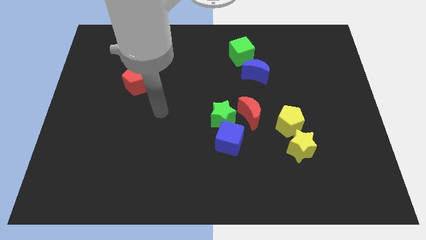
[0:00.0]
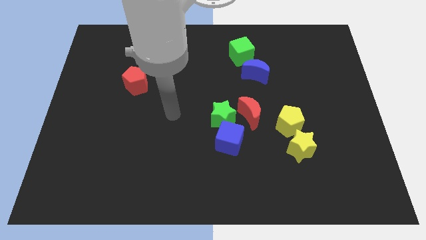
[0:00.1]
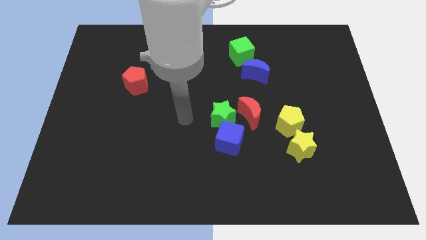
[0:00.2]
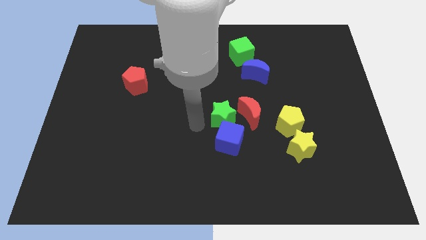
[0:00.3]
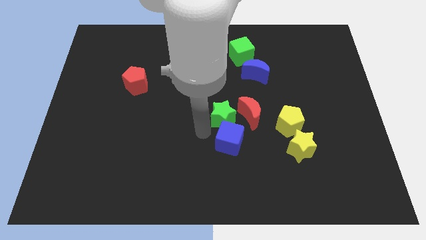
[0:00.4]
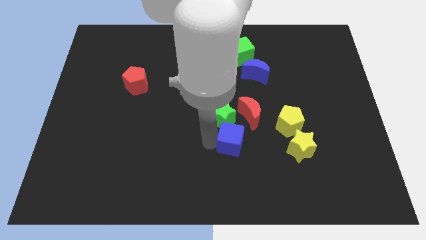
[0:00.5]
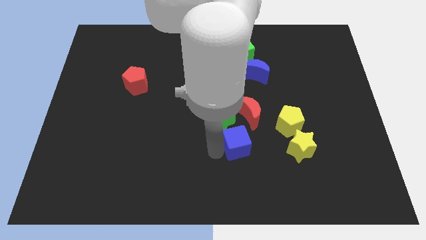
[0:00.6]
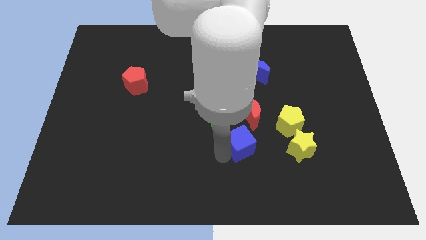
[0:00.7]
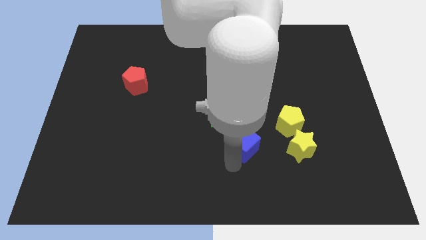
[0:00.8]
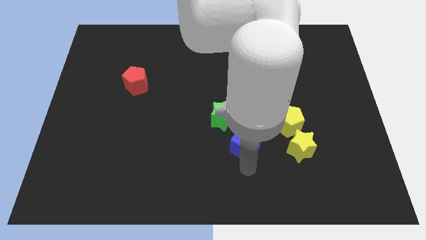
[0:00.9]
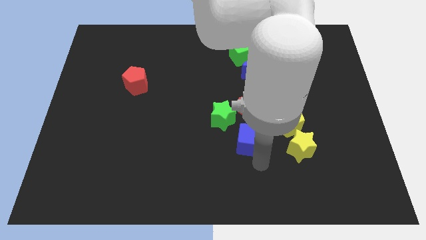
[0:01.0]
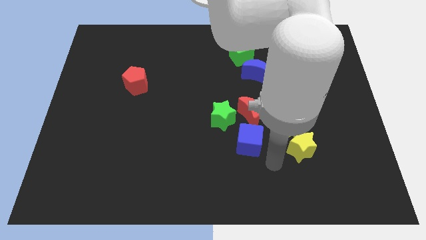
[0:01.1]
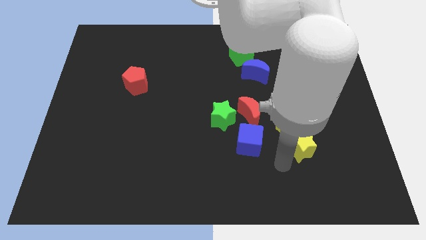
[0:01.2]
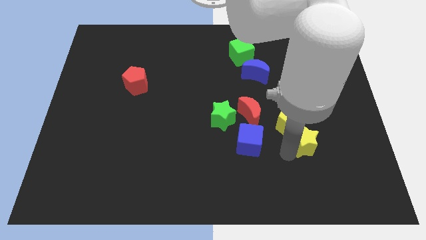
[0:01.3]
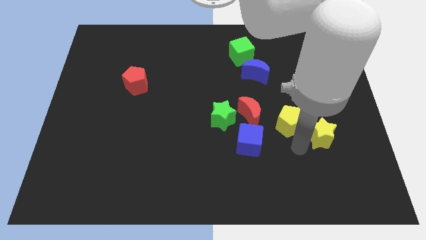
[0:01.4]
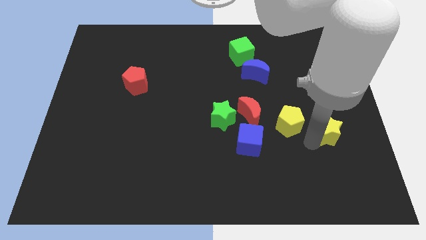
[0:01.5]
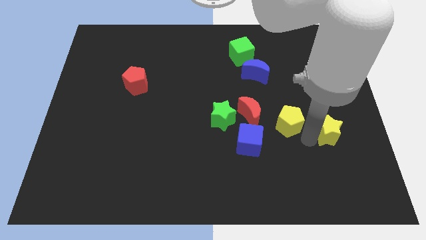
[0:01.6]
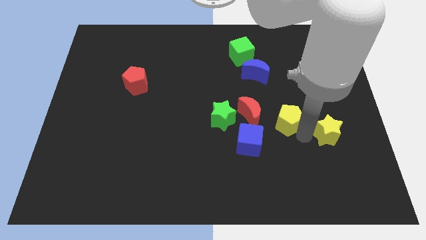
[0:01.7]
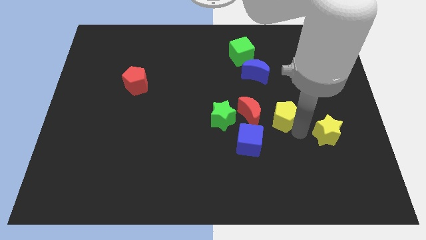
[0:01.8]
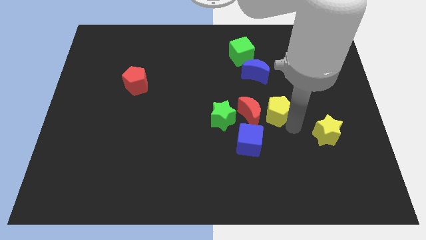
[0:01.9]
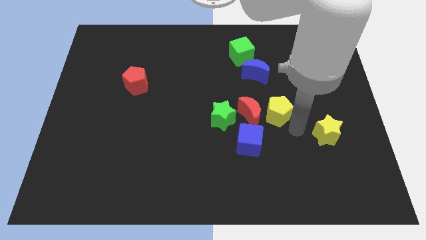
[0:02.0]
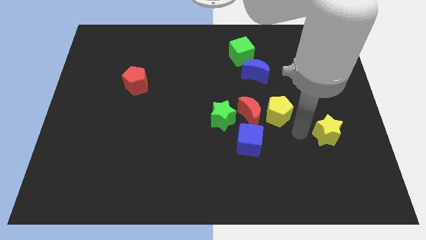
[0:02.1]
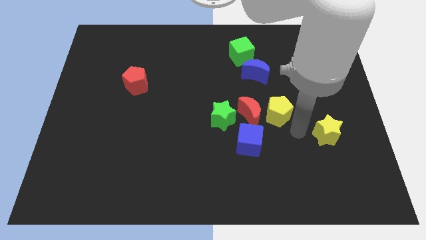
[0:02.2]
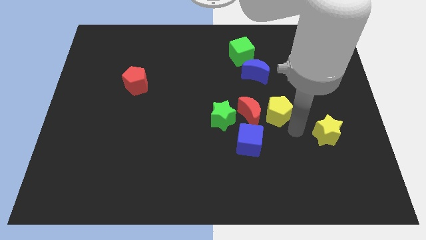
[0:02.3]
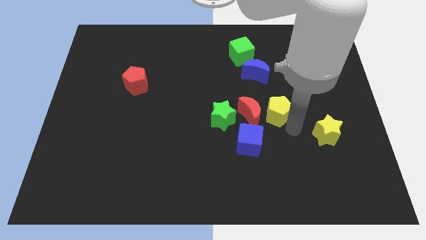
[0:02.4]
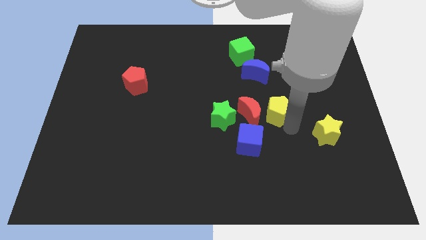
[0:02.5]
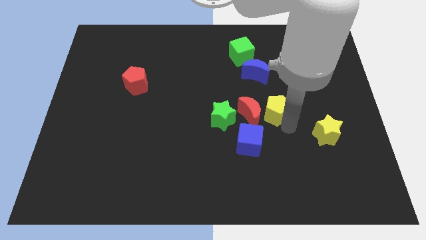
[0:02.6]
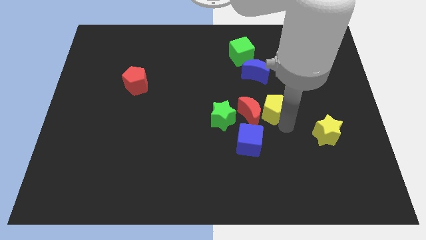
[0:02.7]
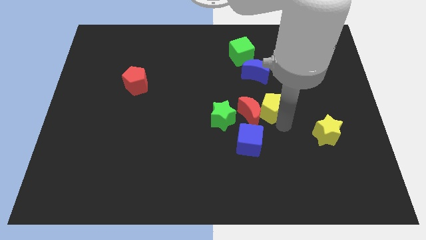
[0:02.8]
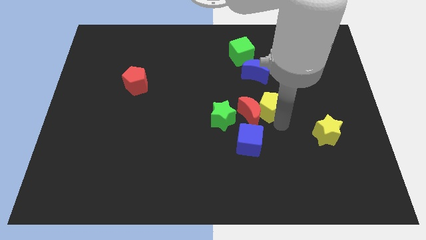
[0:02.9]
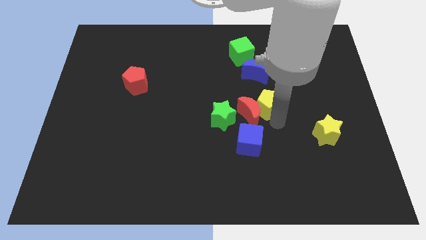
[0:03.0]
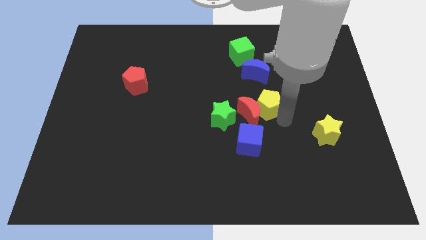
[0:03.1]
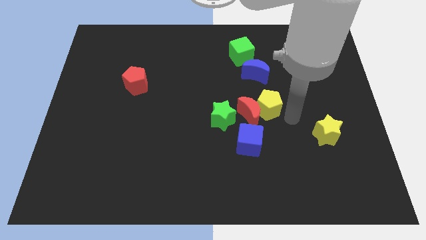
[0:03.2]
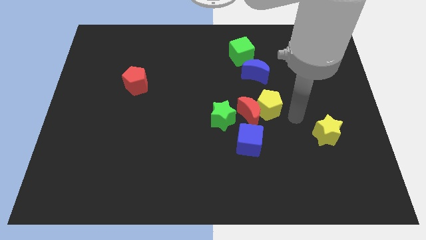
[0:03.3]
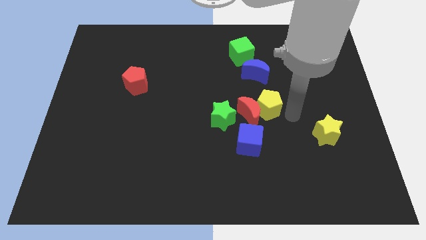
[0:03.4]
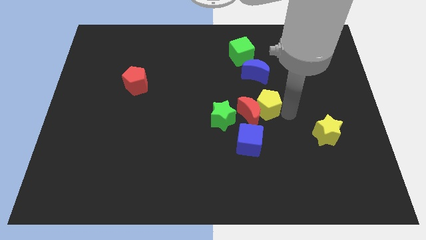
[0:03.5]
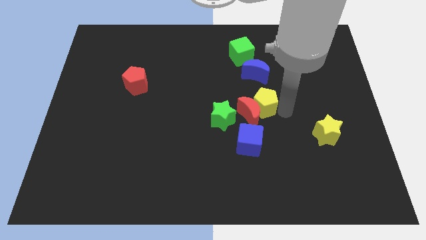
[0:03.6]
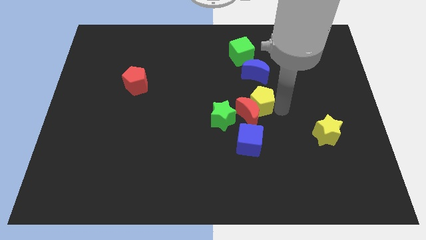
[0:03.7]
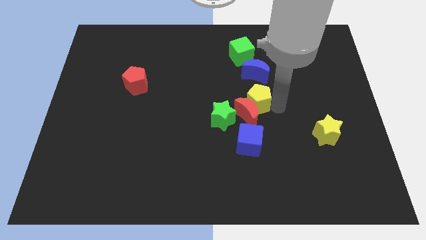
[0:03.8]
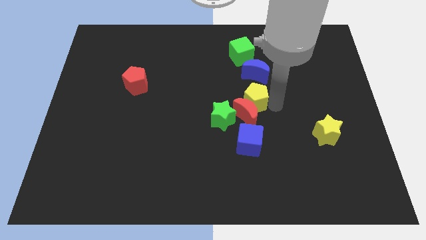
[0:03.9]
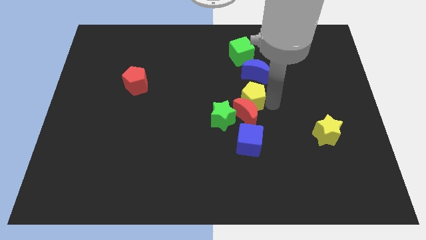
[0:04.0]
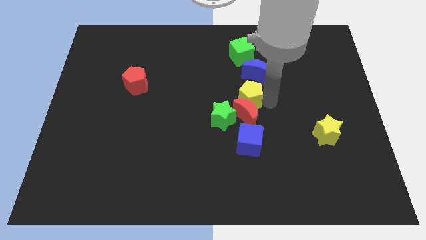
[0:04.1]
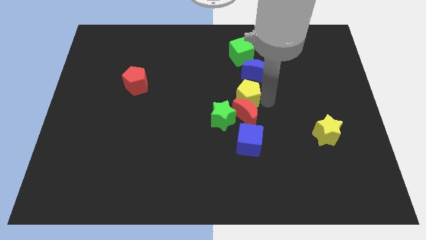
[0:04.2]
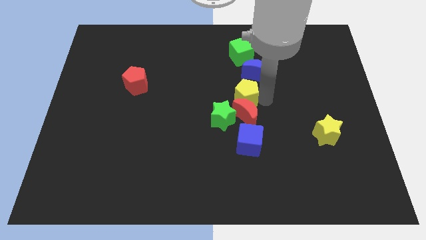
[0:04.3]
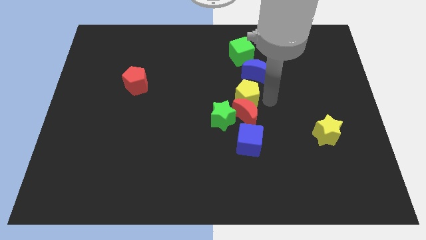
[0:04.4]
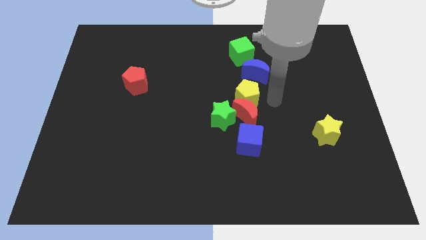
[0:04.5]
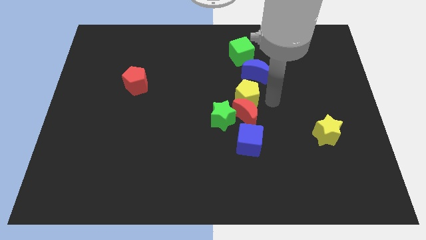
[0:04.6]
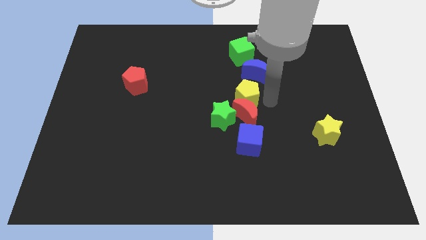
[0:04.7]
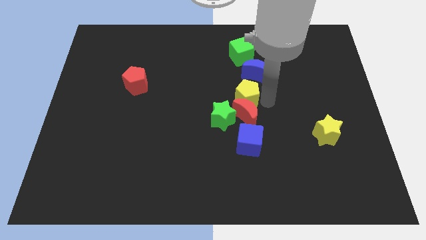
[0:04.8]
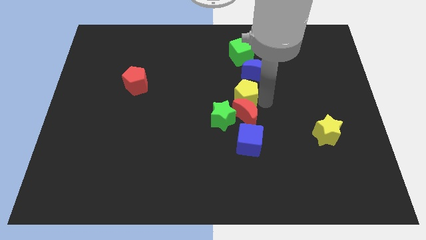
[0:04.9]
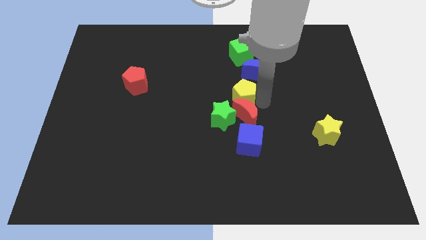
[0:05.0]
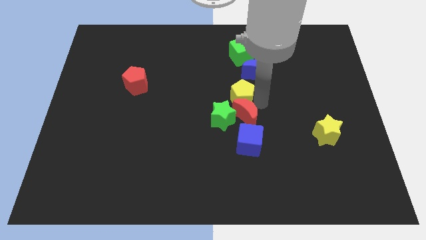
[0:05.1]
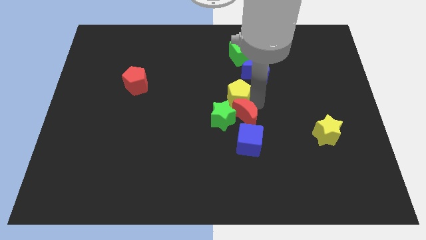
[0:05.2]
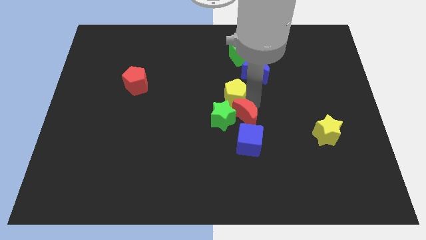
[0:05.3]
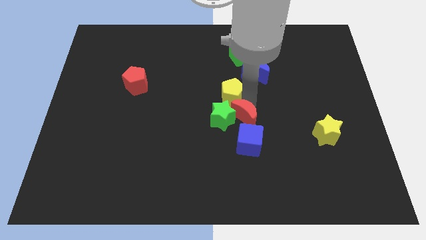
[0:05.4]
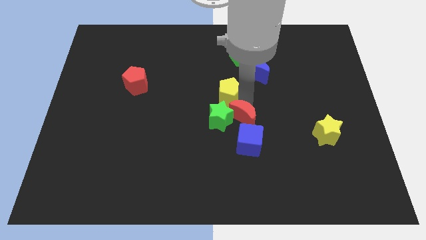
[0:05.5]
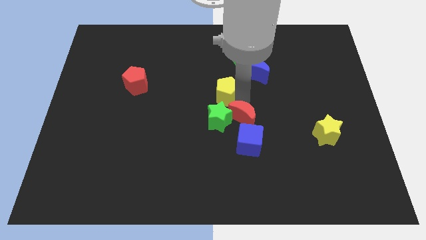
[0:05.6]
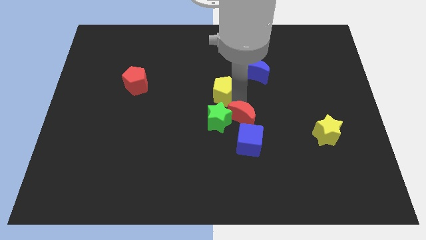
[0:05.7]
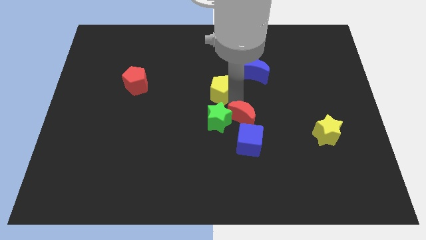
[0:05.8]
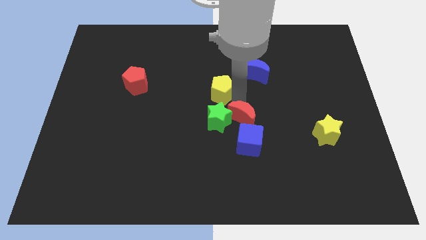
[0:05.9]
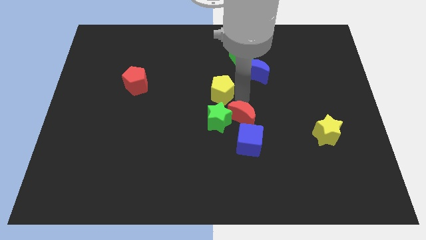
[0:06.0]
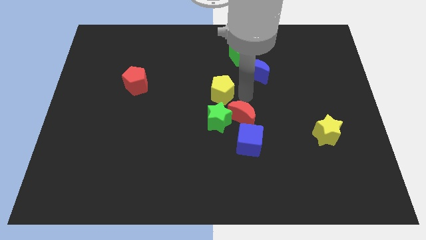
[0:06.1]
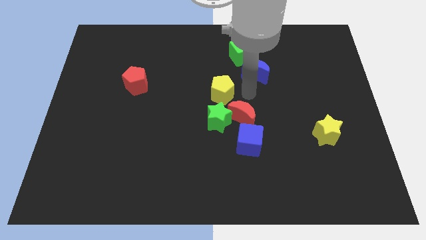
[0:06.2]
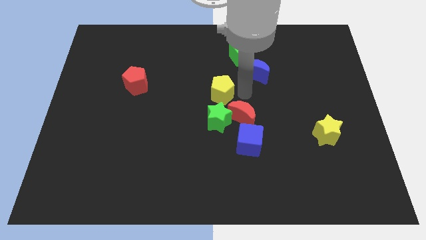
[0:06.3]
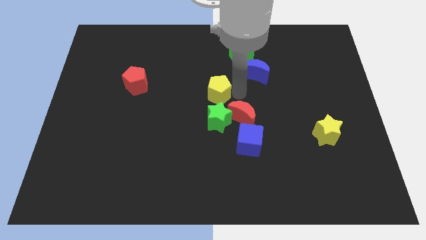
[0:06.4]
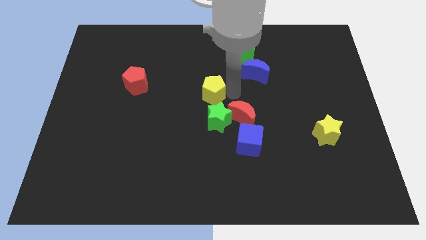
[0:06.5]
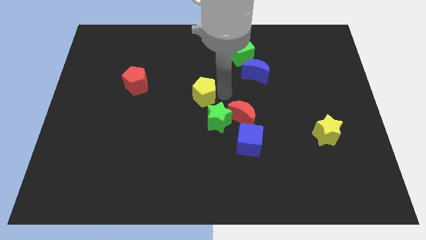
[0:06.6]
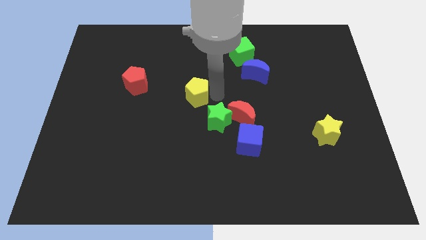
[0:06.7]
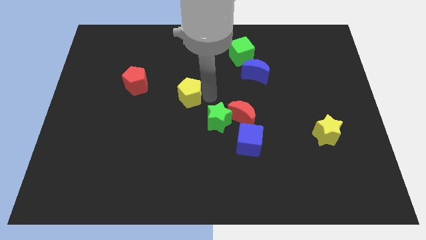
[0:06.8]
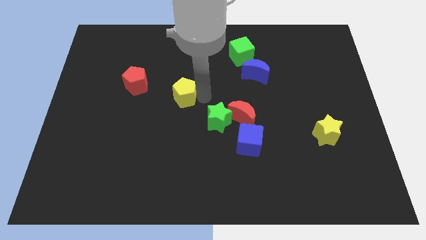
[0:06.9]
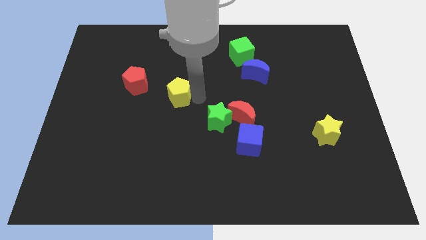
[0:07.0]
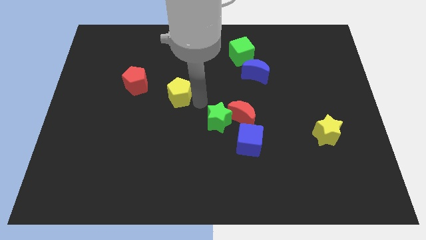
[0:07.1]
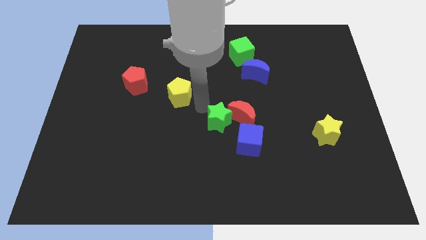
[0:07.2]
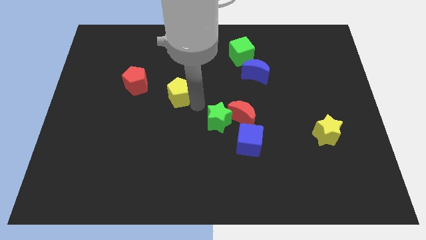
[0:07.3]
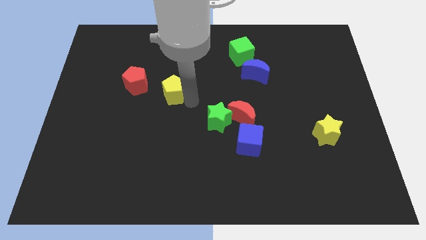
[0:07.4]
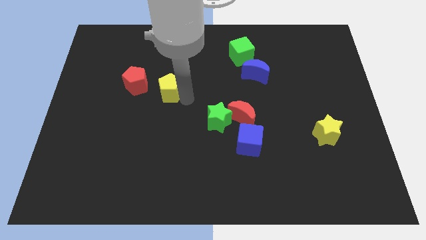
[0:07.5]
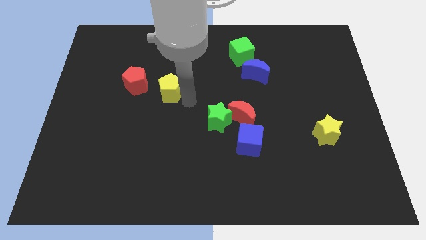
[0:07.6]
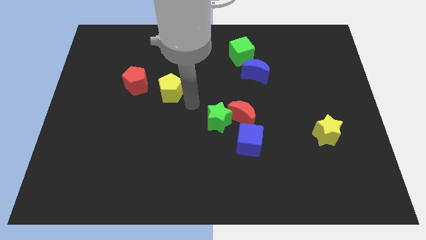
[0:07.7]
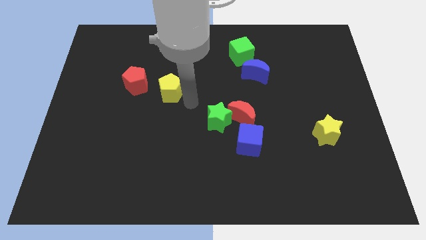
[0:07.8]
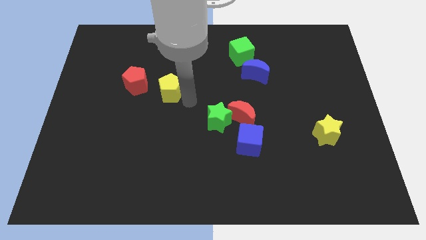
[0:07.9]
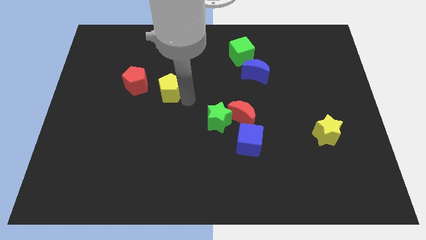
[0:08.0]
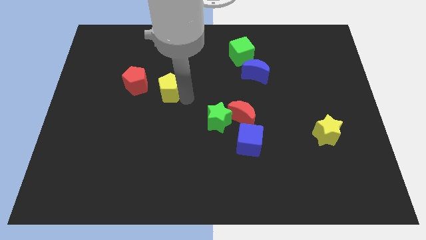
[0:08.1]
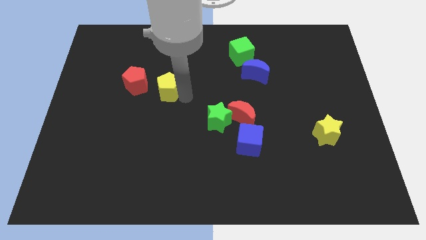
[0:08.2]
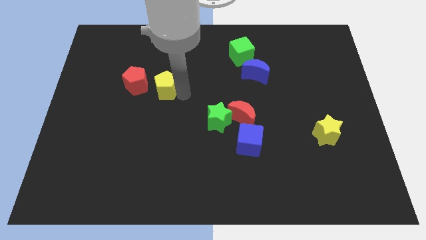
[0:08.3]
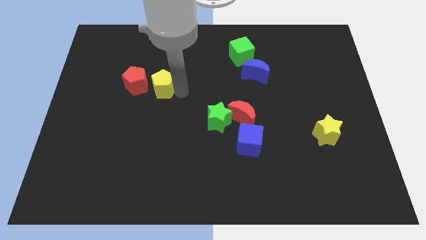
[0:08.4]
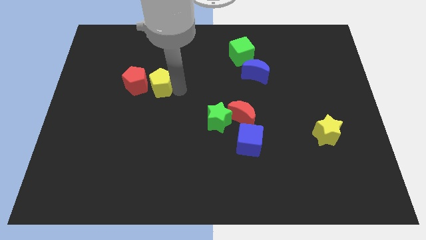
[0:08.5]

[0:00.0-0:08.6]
push the yellow pentagon next to the red pentagon
